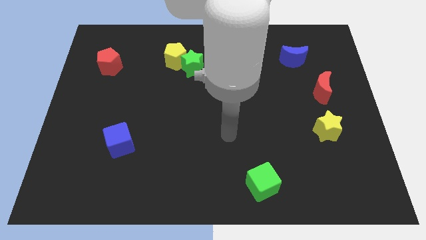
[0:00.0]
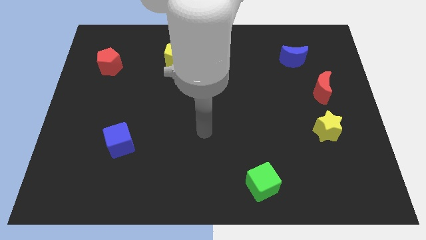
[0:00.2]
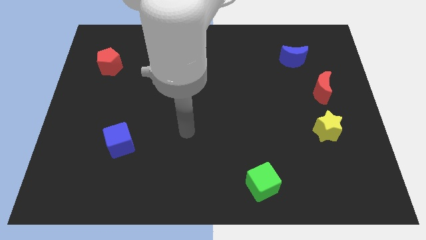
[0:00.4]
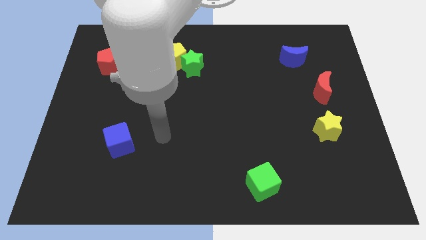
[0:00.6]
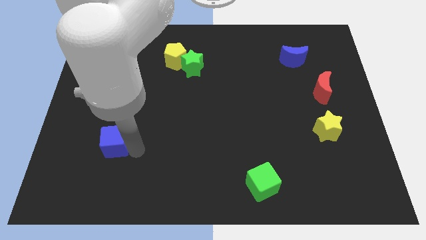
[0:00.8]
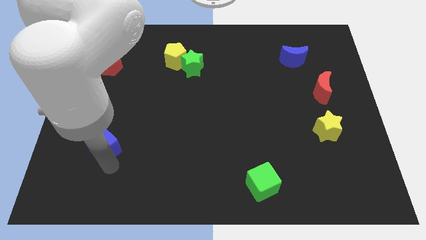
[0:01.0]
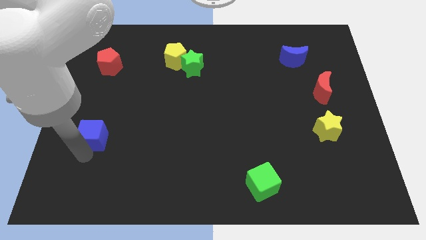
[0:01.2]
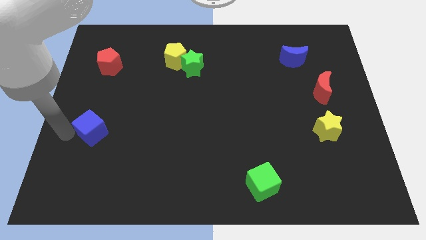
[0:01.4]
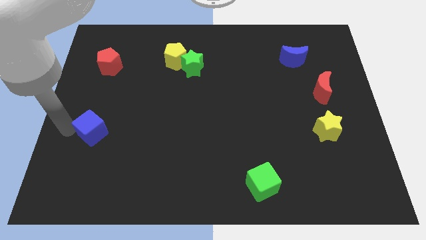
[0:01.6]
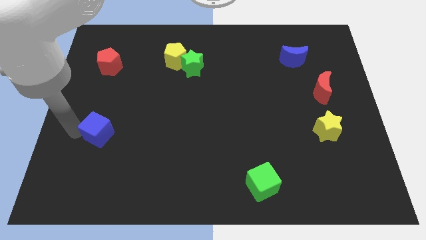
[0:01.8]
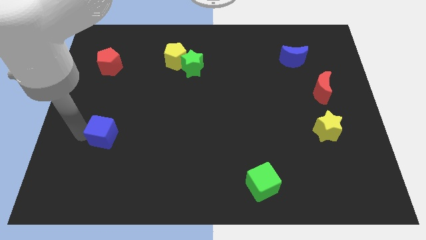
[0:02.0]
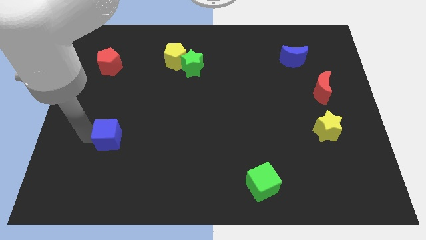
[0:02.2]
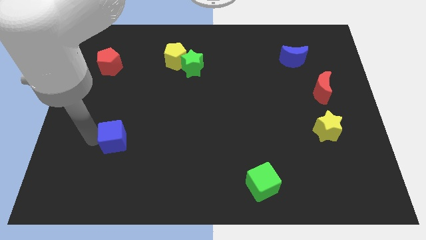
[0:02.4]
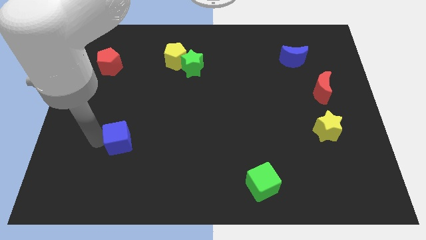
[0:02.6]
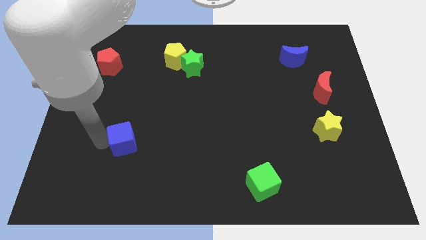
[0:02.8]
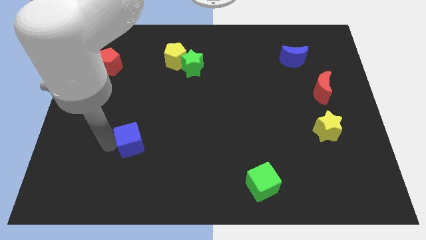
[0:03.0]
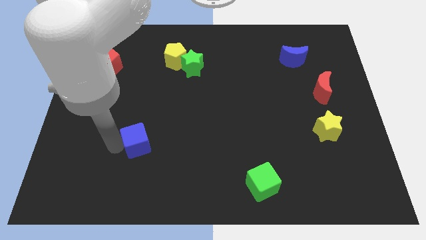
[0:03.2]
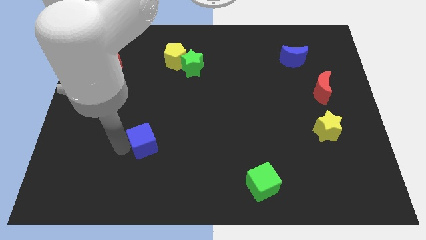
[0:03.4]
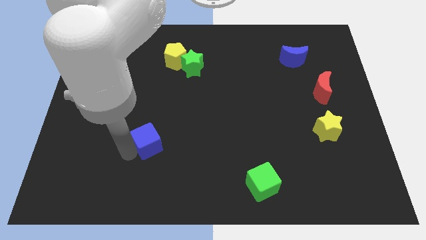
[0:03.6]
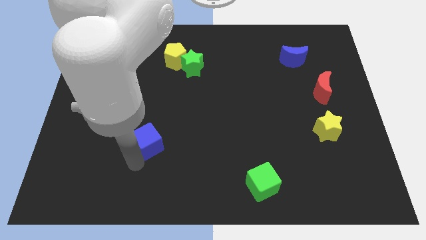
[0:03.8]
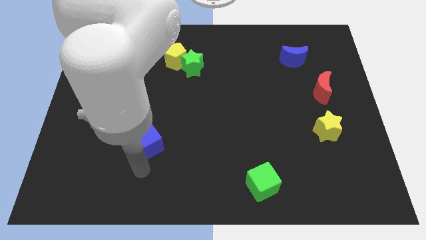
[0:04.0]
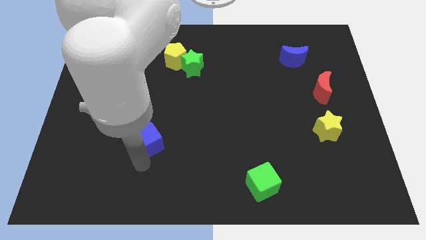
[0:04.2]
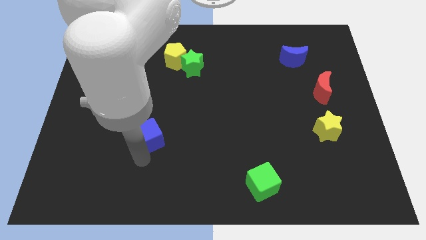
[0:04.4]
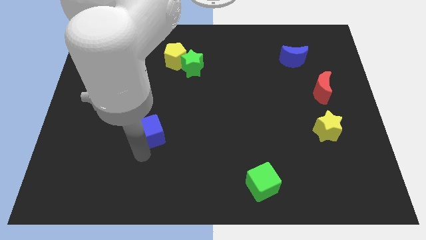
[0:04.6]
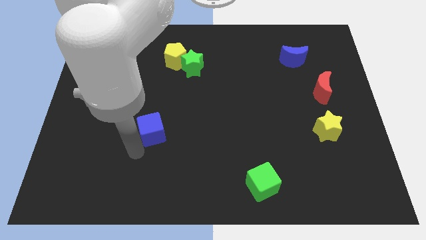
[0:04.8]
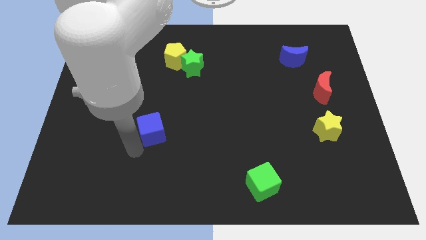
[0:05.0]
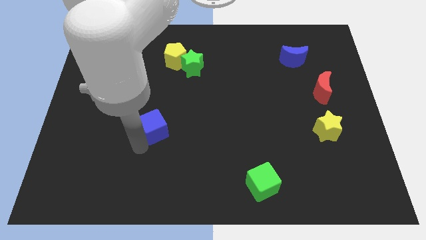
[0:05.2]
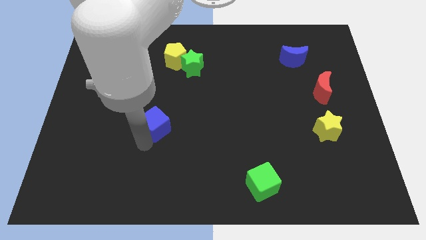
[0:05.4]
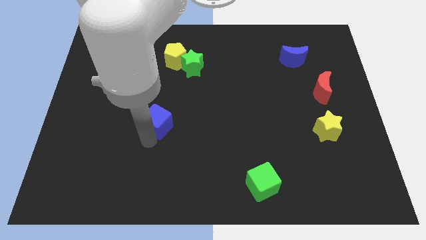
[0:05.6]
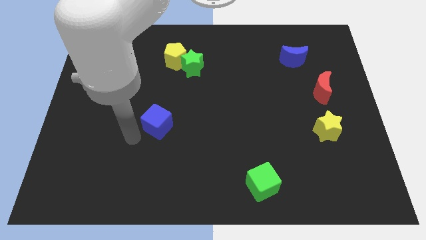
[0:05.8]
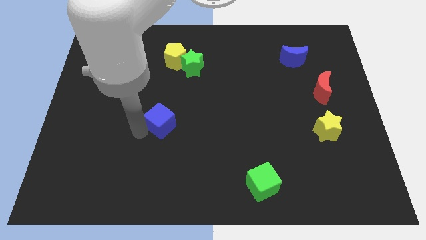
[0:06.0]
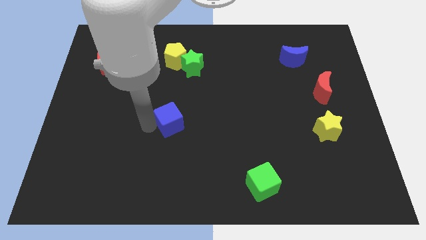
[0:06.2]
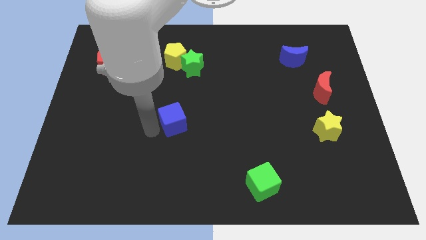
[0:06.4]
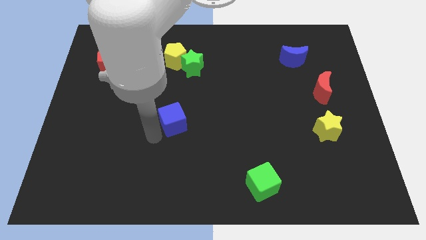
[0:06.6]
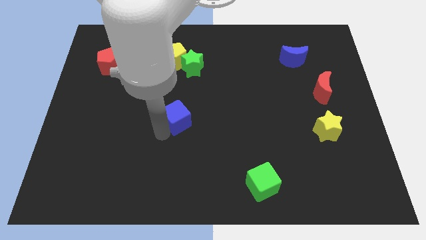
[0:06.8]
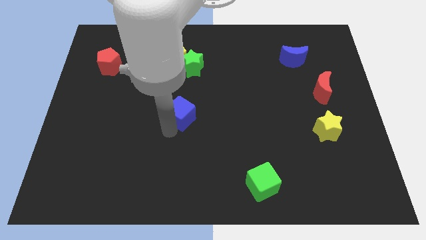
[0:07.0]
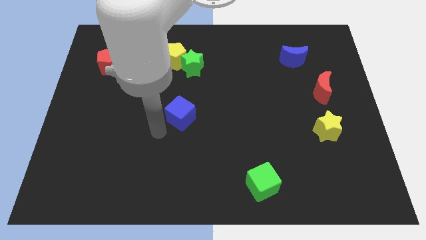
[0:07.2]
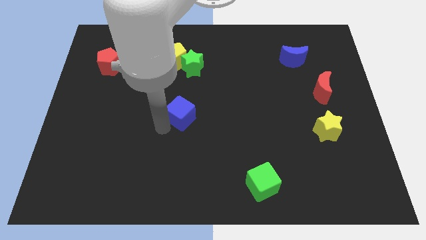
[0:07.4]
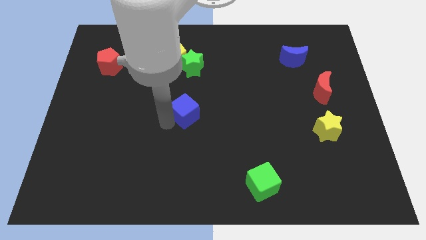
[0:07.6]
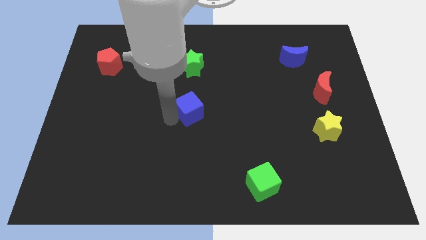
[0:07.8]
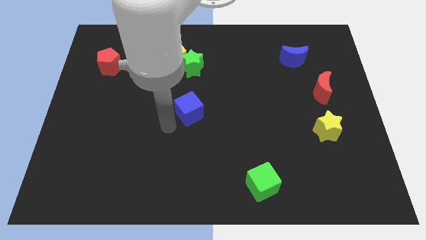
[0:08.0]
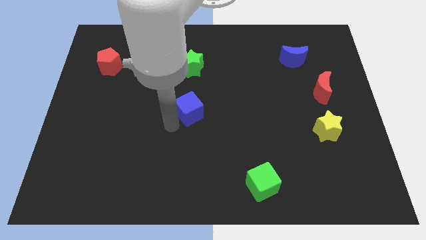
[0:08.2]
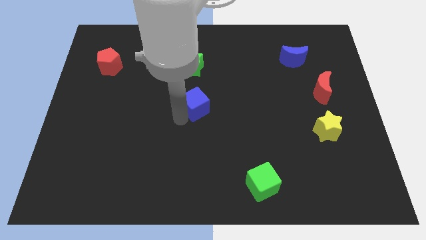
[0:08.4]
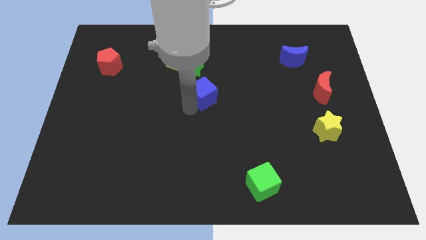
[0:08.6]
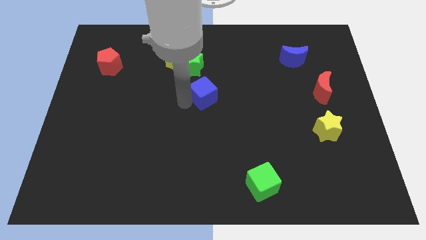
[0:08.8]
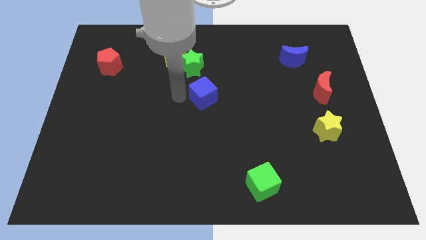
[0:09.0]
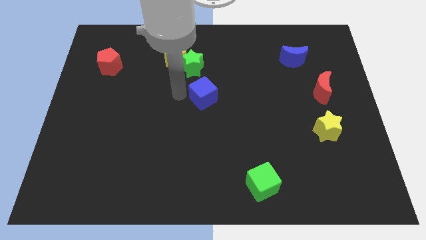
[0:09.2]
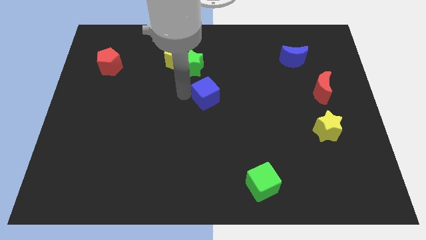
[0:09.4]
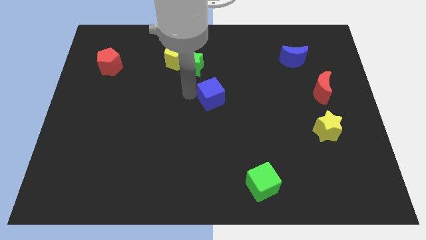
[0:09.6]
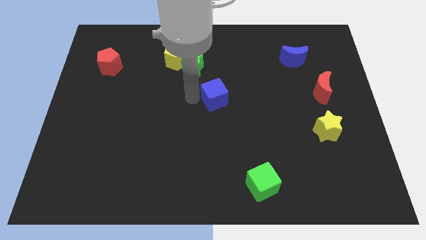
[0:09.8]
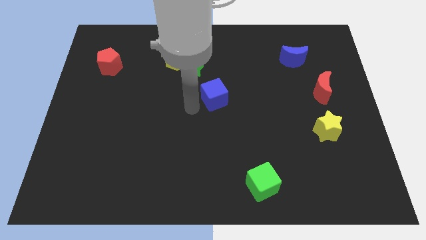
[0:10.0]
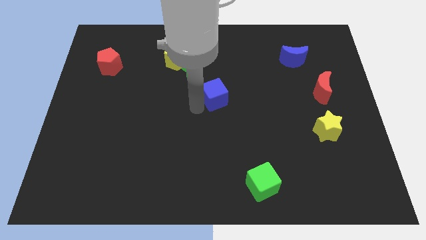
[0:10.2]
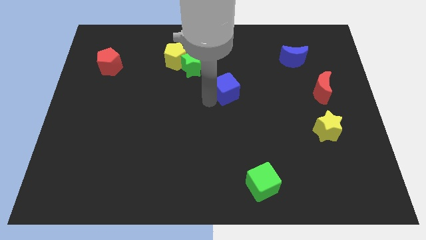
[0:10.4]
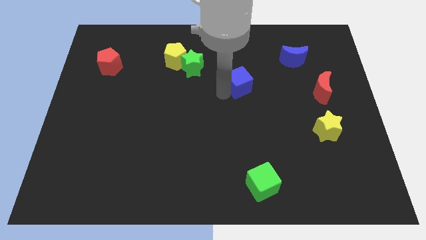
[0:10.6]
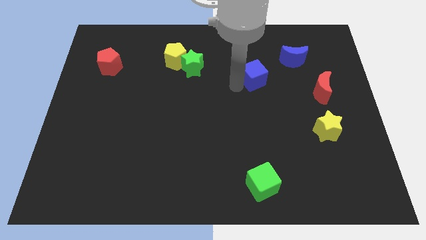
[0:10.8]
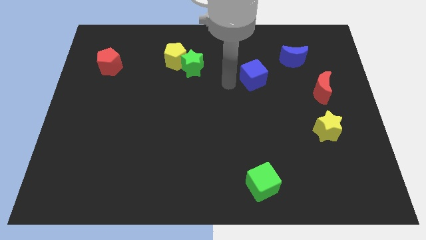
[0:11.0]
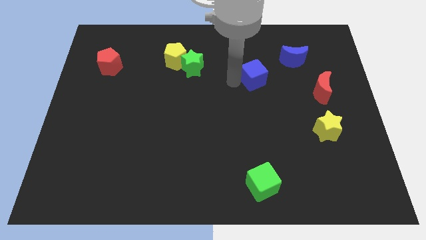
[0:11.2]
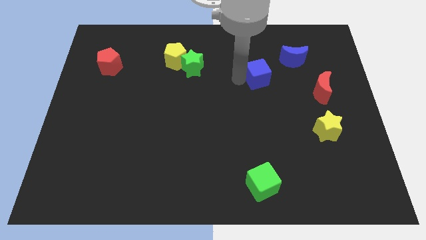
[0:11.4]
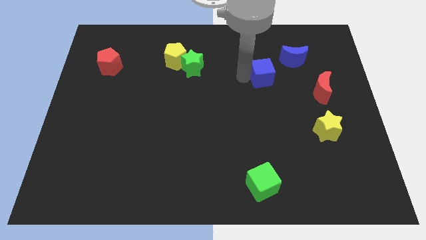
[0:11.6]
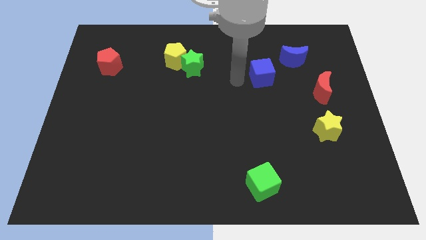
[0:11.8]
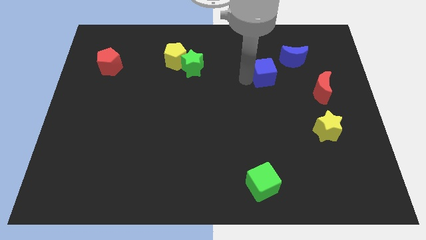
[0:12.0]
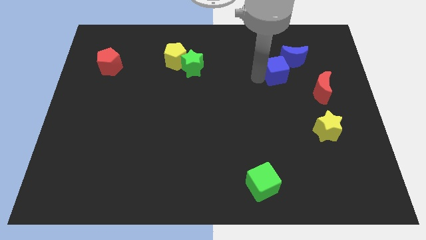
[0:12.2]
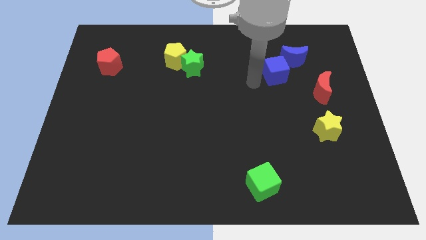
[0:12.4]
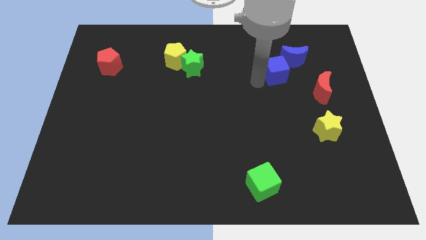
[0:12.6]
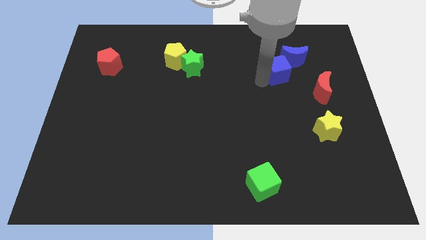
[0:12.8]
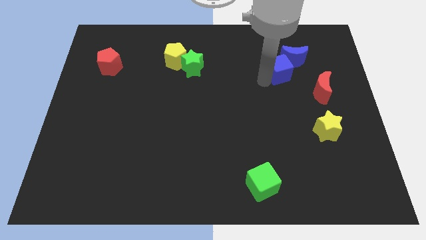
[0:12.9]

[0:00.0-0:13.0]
move the blue cube next to the blue moon
